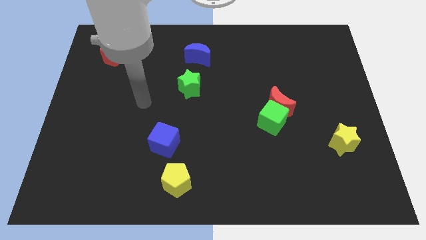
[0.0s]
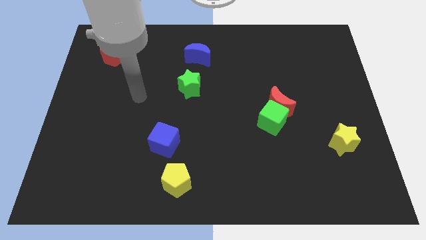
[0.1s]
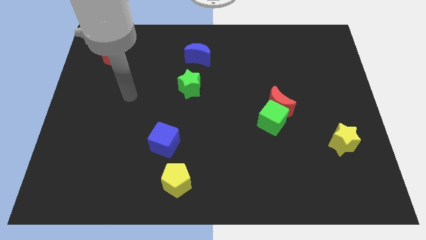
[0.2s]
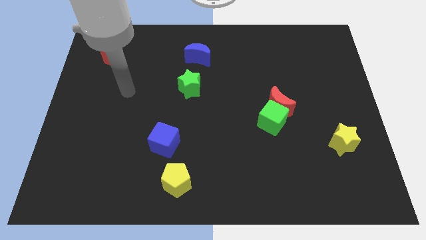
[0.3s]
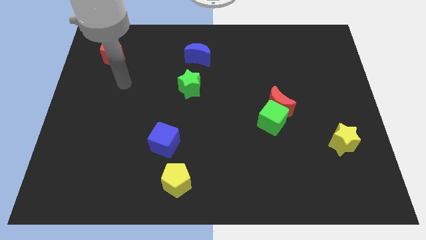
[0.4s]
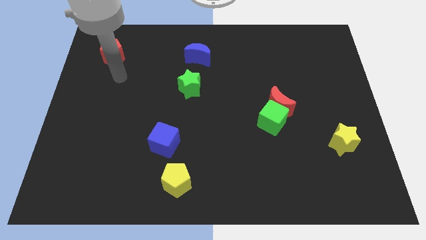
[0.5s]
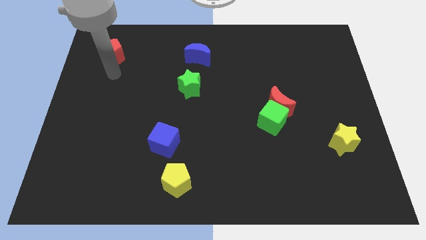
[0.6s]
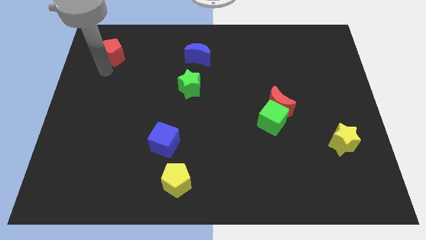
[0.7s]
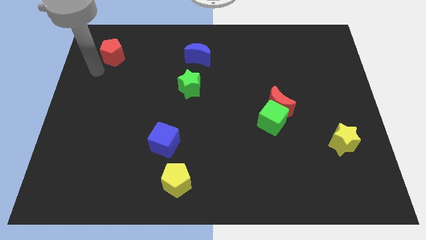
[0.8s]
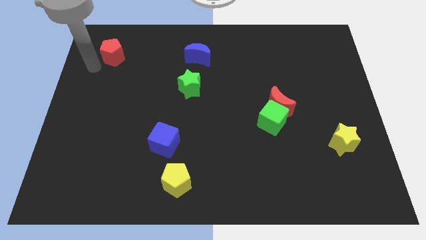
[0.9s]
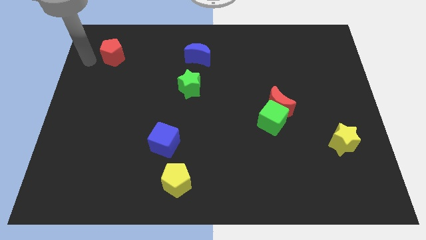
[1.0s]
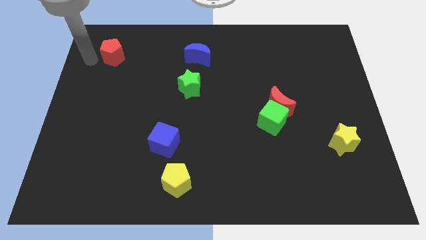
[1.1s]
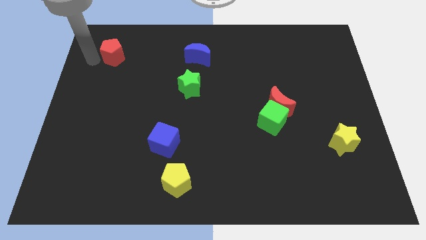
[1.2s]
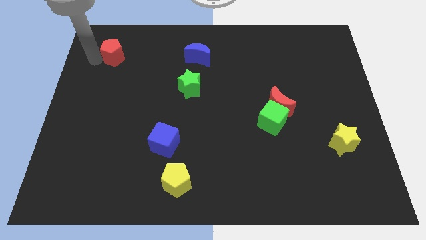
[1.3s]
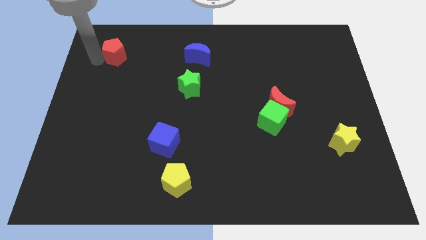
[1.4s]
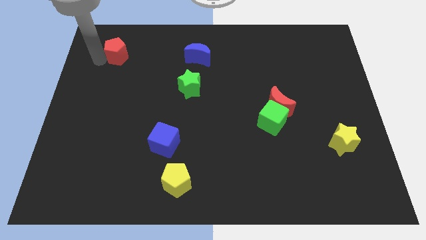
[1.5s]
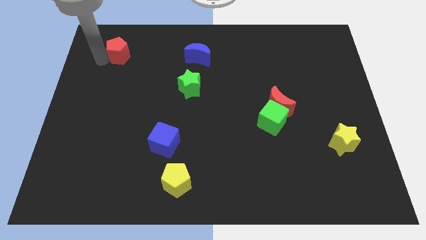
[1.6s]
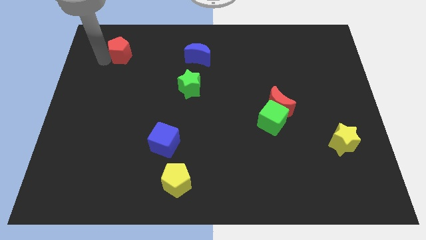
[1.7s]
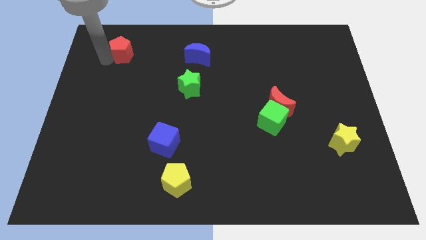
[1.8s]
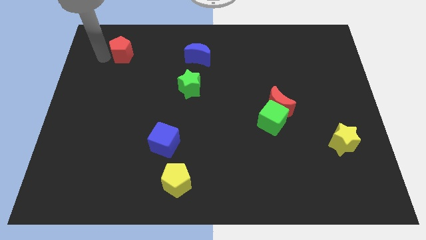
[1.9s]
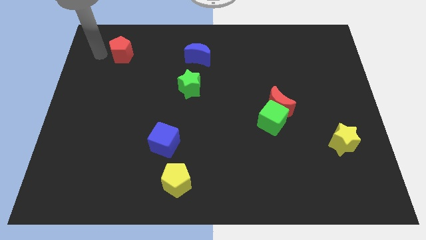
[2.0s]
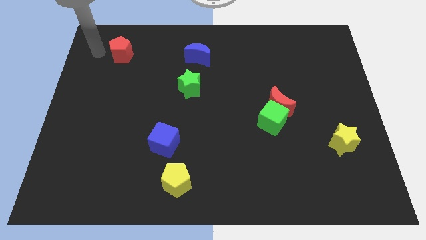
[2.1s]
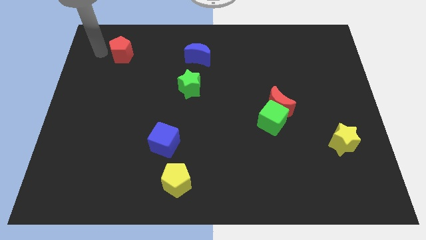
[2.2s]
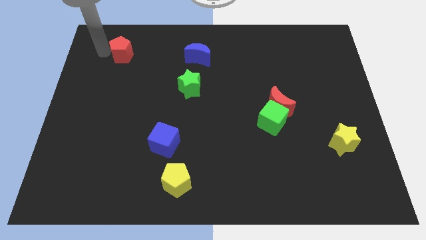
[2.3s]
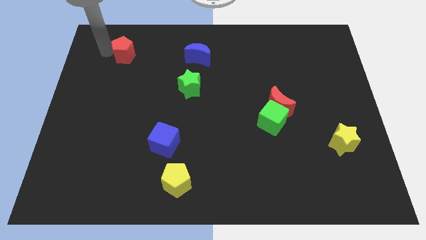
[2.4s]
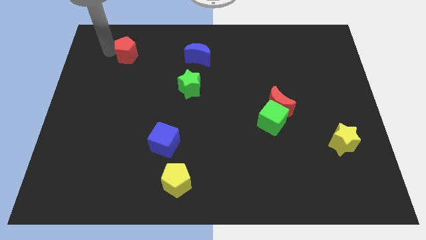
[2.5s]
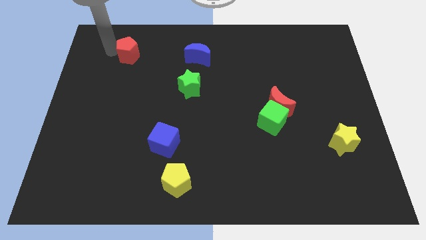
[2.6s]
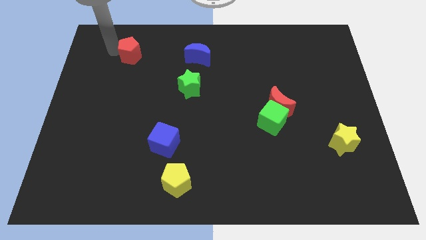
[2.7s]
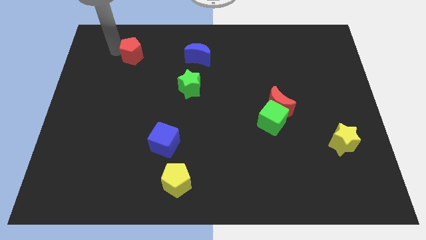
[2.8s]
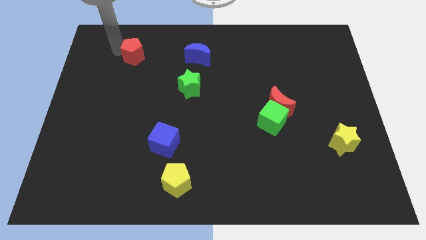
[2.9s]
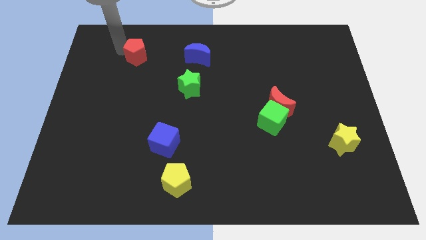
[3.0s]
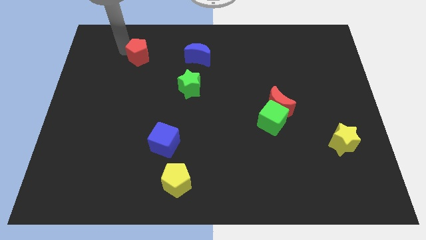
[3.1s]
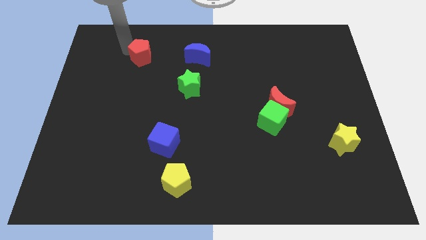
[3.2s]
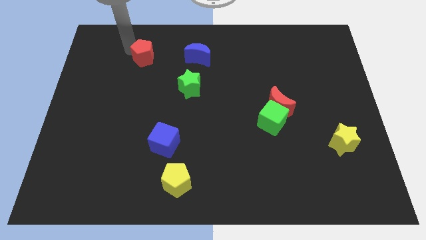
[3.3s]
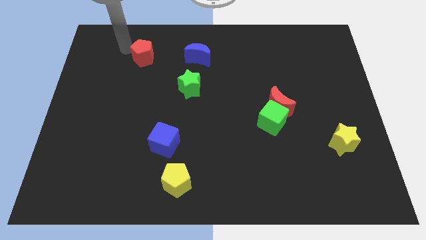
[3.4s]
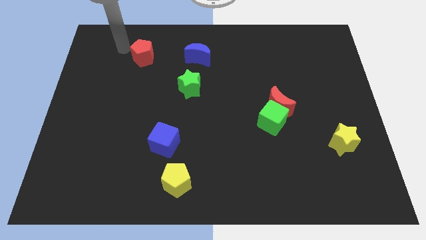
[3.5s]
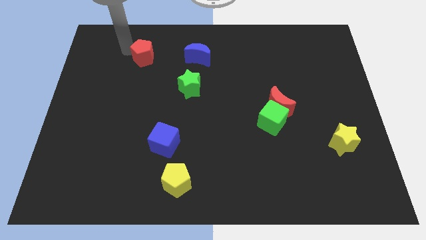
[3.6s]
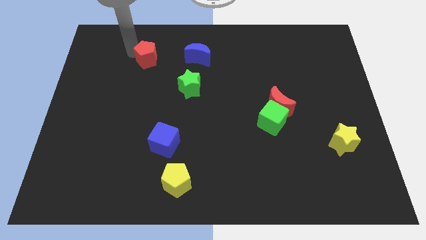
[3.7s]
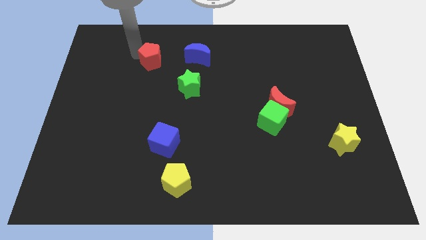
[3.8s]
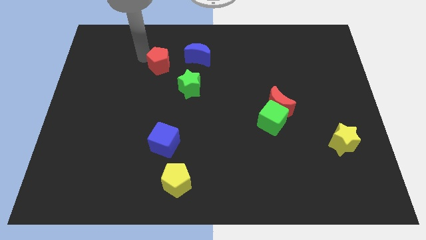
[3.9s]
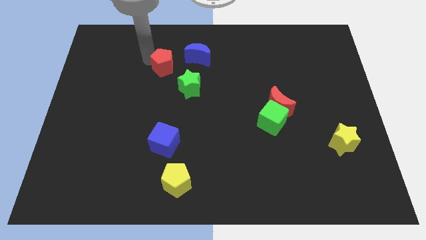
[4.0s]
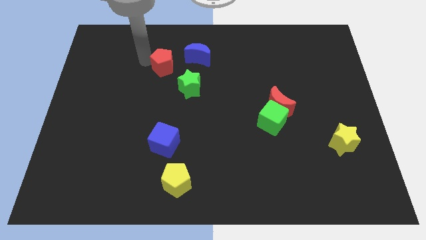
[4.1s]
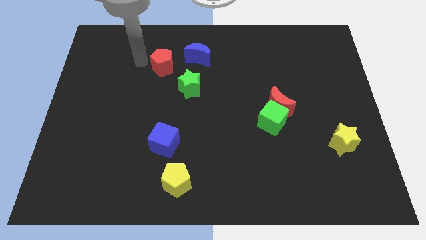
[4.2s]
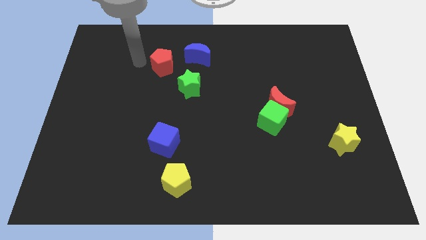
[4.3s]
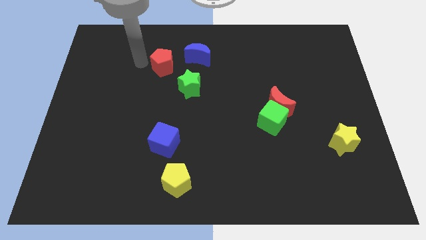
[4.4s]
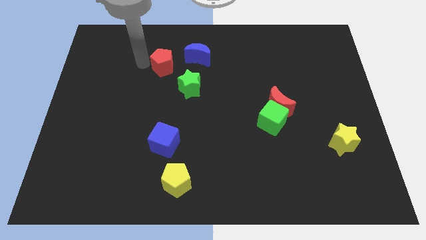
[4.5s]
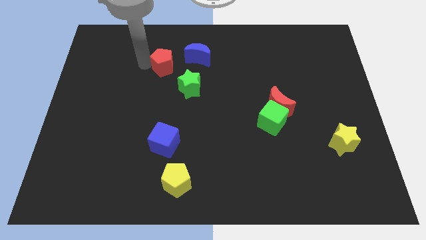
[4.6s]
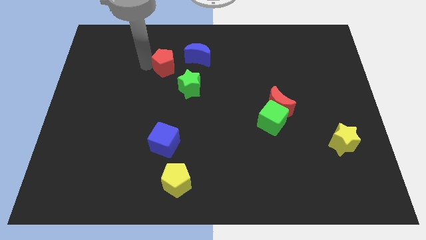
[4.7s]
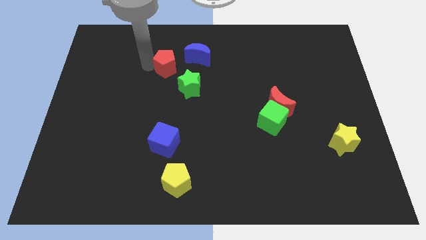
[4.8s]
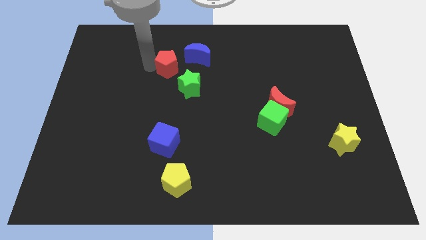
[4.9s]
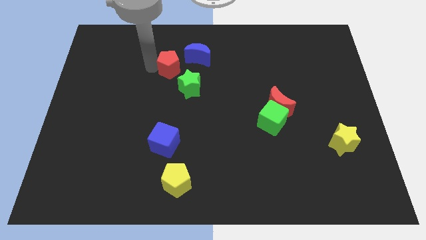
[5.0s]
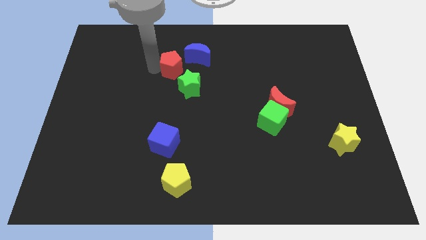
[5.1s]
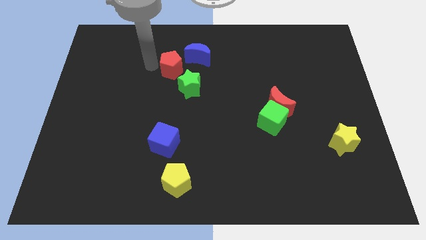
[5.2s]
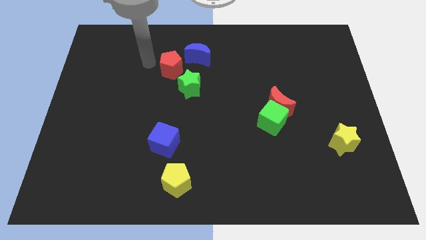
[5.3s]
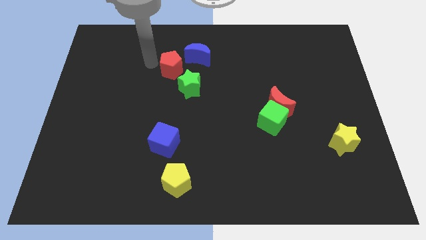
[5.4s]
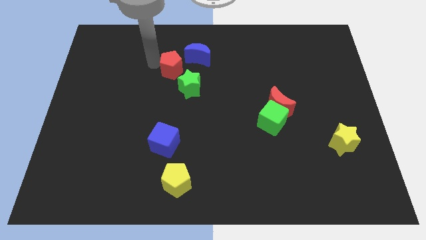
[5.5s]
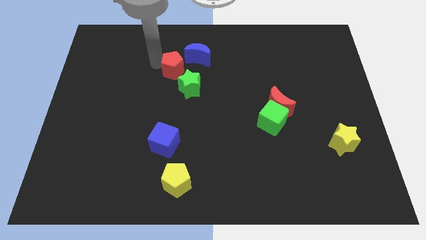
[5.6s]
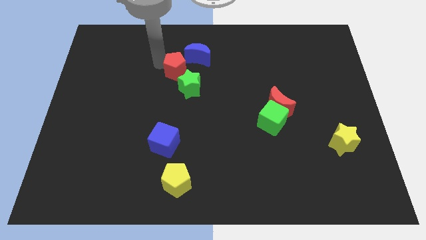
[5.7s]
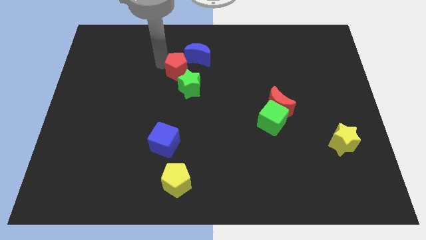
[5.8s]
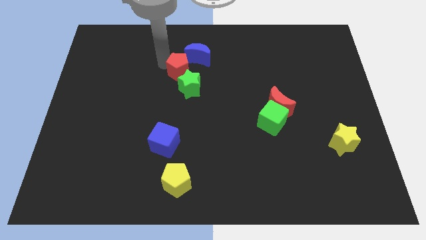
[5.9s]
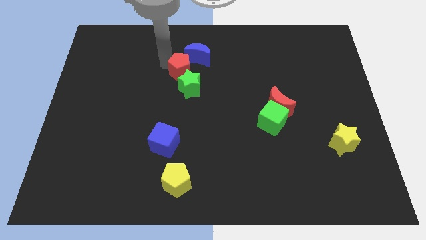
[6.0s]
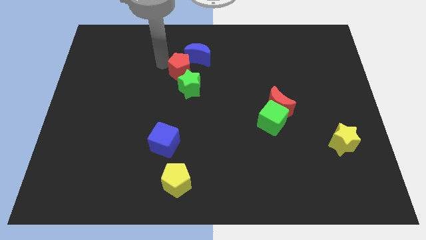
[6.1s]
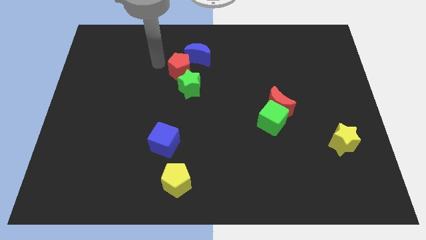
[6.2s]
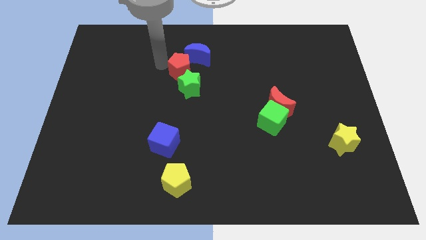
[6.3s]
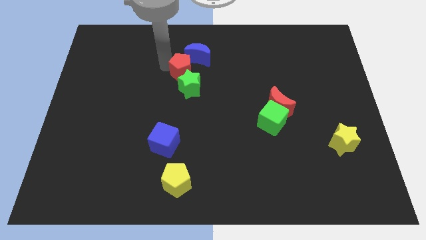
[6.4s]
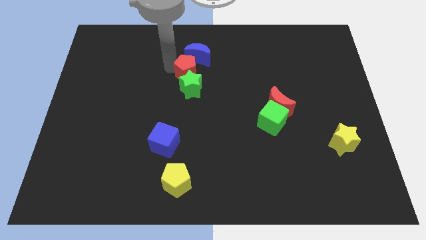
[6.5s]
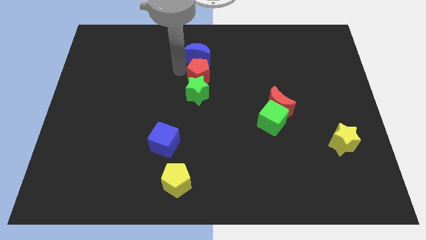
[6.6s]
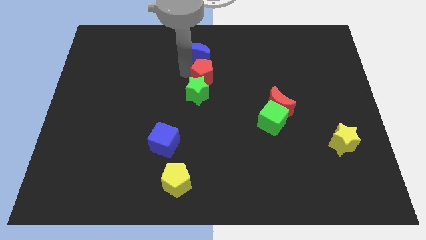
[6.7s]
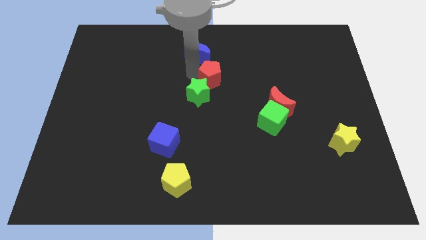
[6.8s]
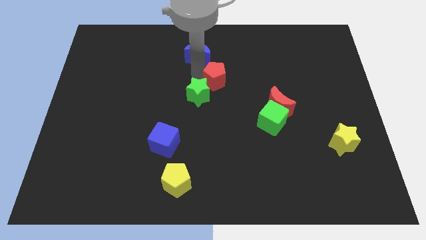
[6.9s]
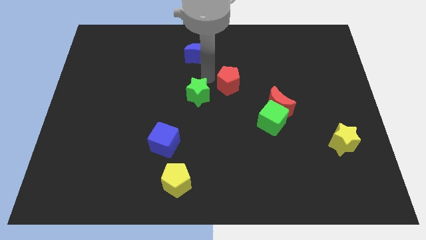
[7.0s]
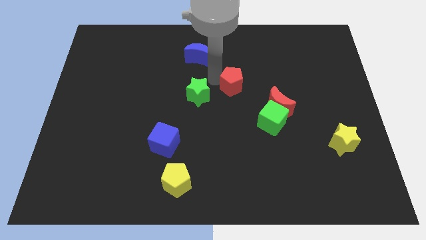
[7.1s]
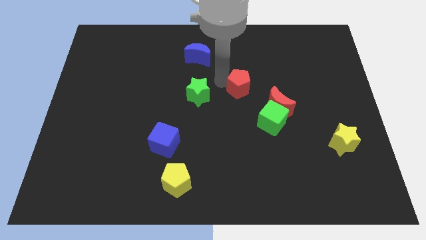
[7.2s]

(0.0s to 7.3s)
slide the red pentagon to the top left of the red moon
